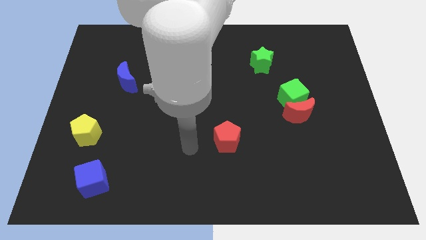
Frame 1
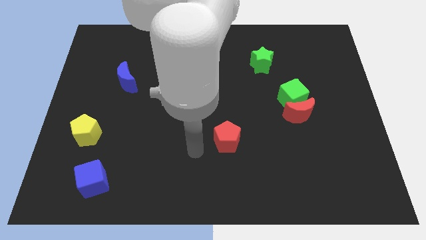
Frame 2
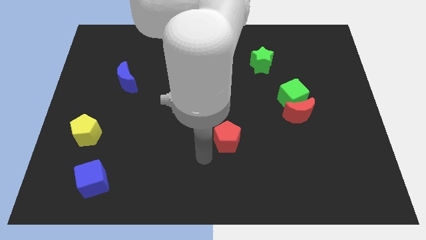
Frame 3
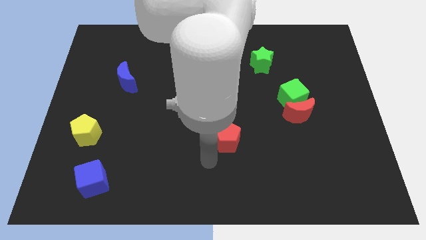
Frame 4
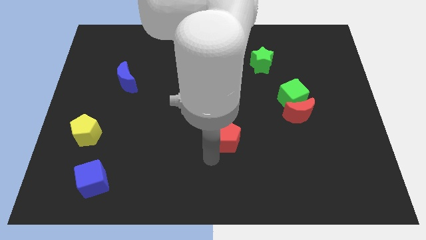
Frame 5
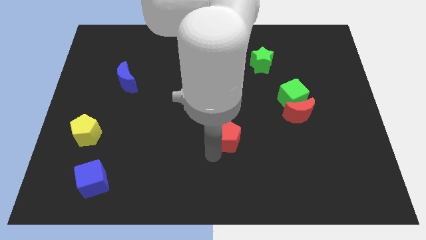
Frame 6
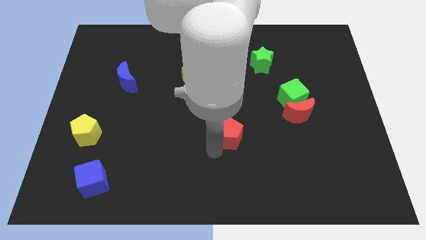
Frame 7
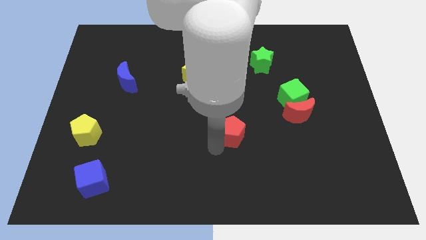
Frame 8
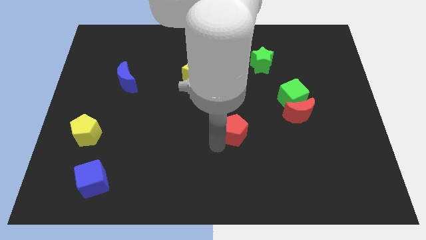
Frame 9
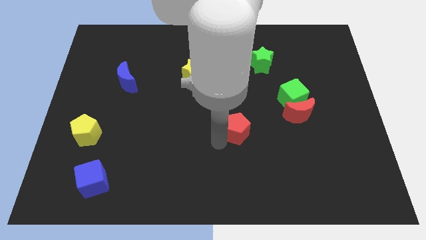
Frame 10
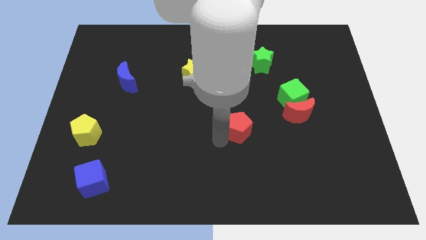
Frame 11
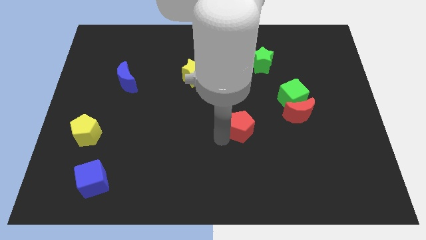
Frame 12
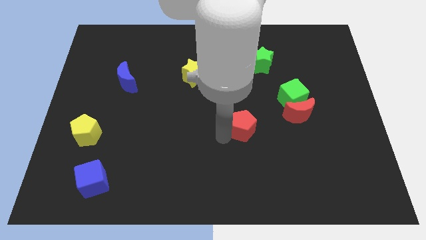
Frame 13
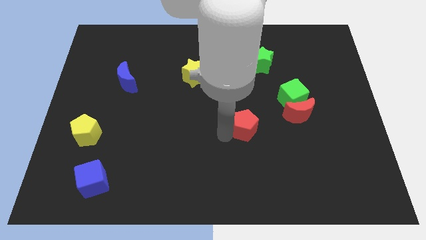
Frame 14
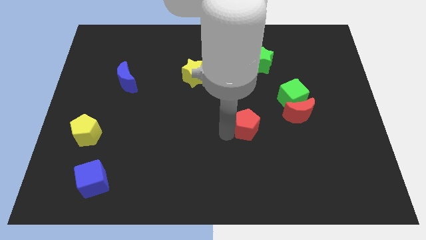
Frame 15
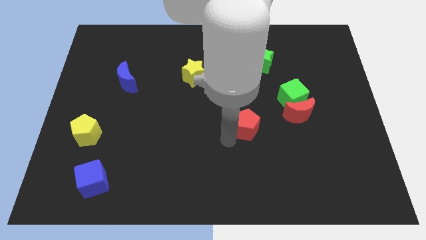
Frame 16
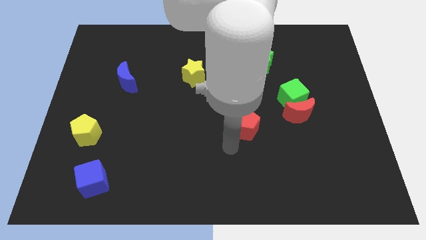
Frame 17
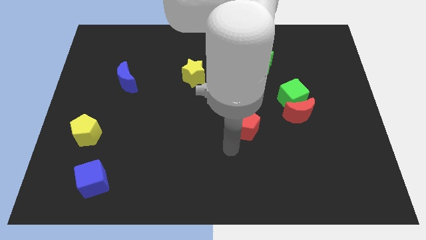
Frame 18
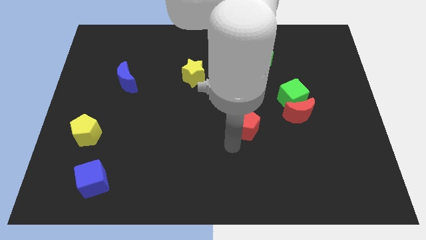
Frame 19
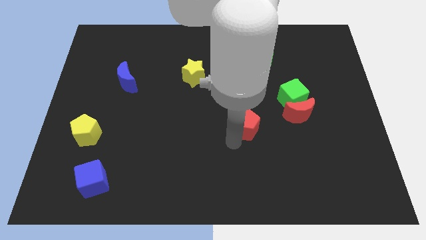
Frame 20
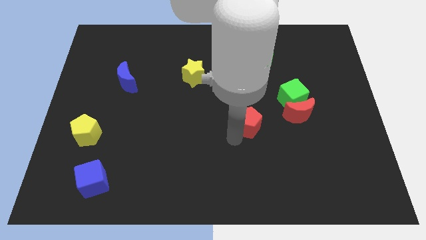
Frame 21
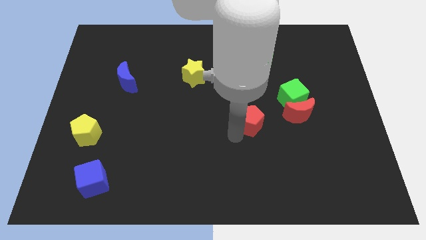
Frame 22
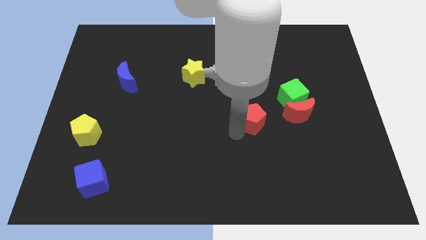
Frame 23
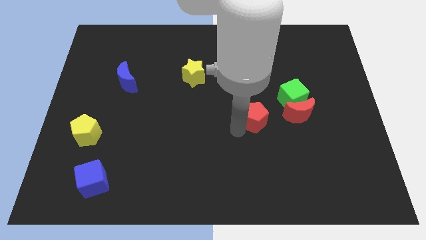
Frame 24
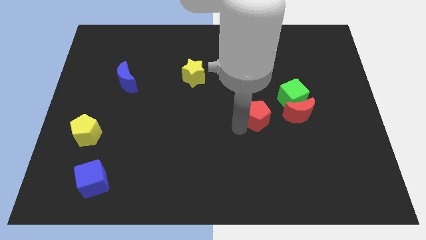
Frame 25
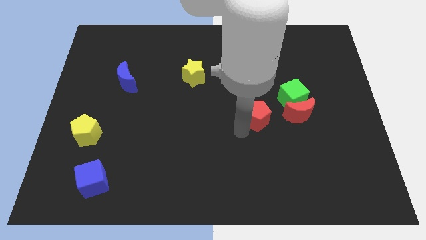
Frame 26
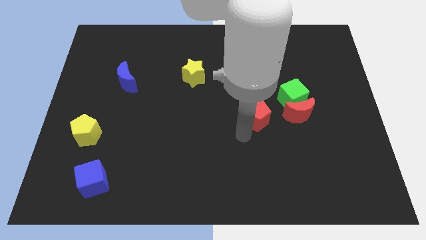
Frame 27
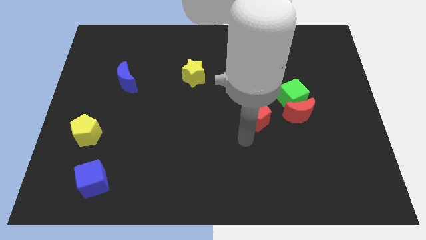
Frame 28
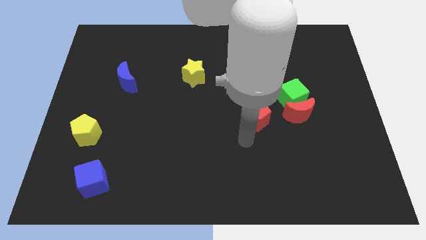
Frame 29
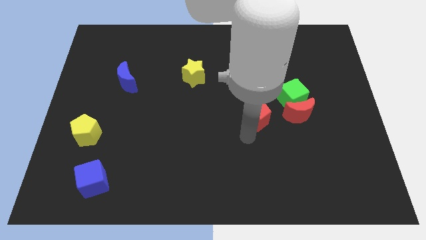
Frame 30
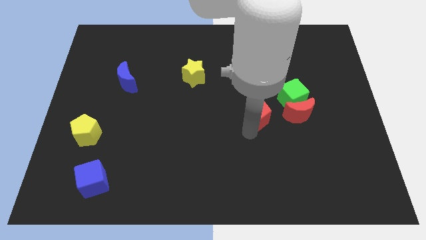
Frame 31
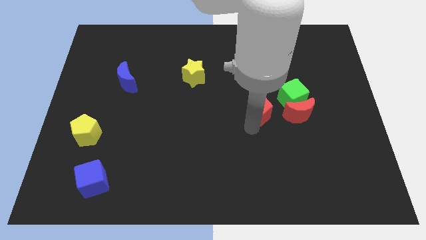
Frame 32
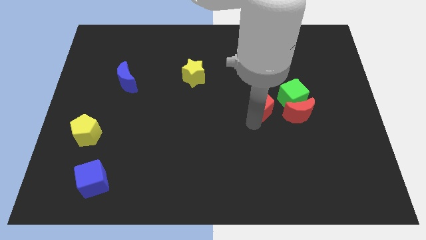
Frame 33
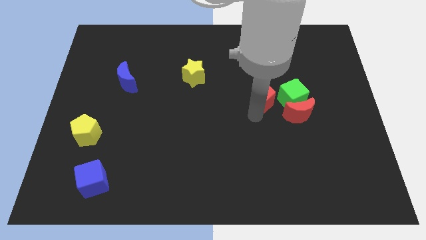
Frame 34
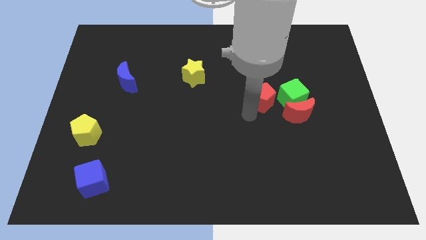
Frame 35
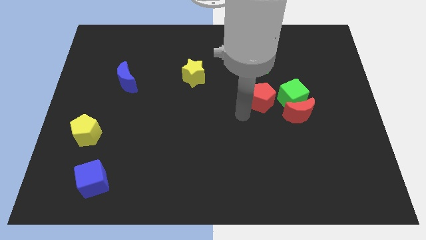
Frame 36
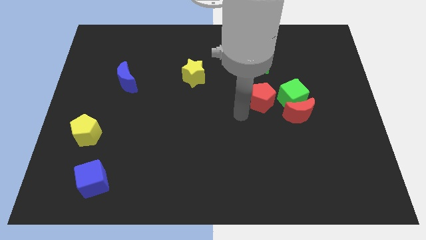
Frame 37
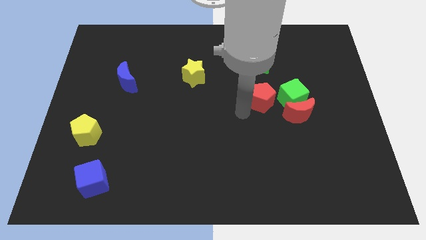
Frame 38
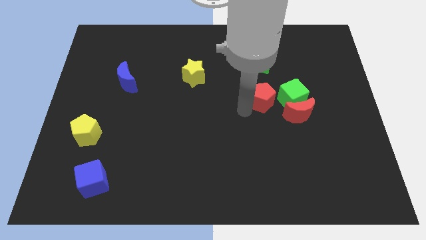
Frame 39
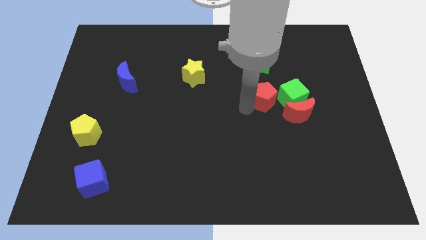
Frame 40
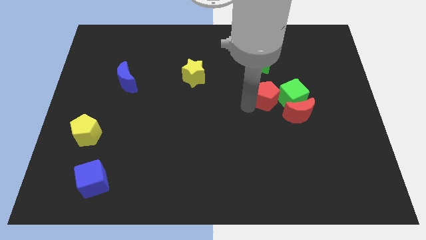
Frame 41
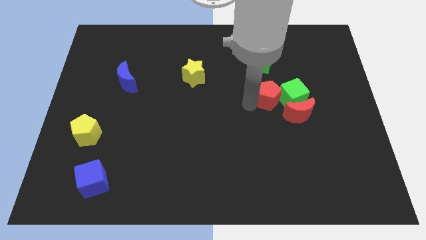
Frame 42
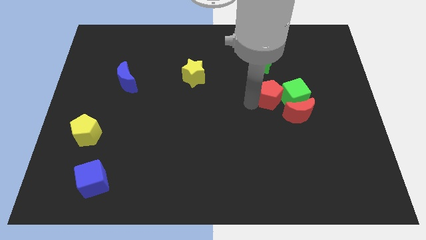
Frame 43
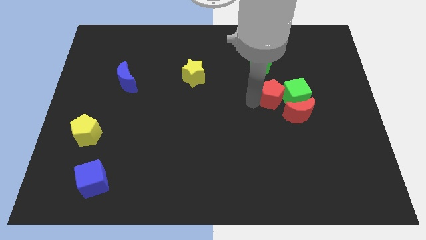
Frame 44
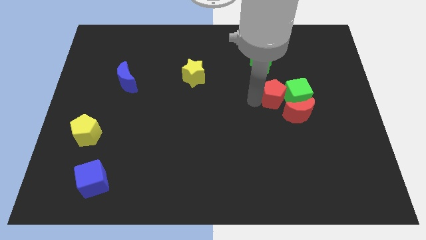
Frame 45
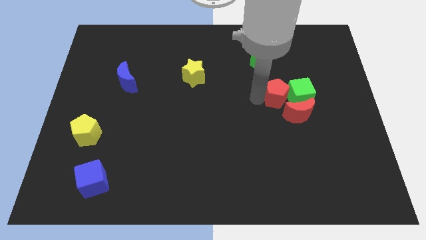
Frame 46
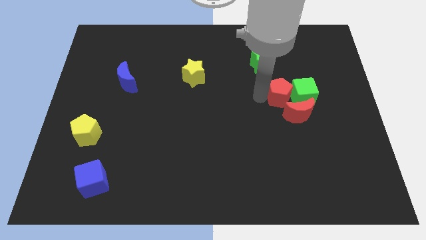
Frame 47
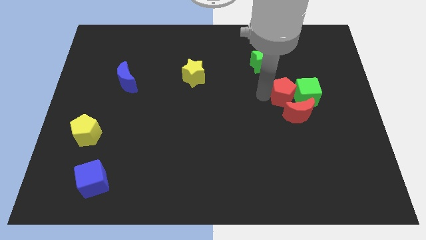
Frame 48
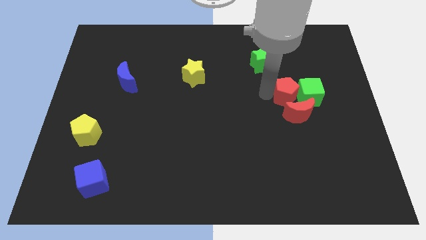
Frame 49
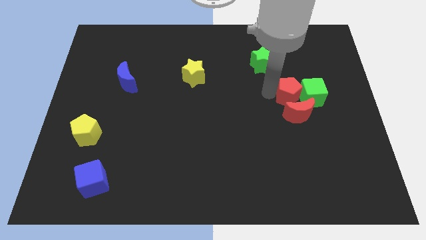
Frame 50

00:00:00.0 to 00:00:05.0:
push the red pentagon diagonally up and to the right

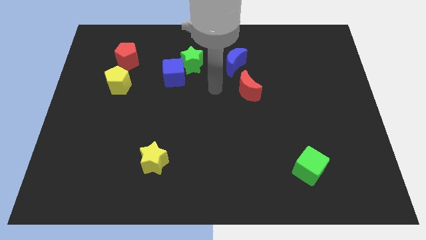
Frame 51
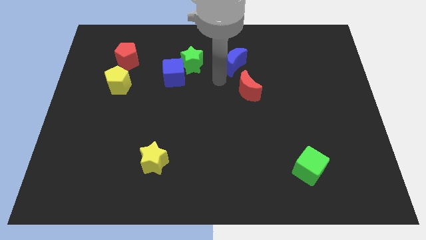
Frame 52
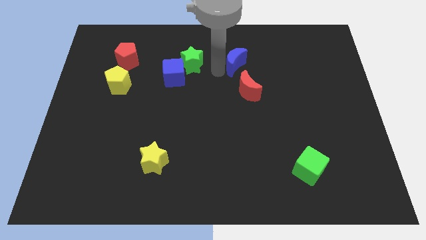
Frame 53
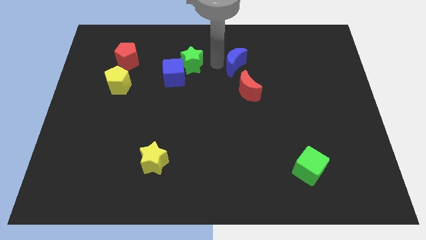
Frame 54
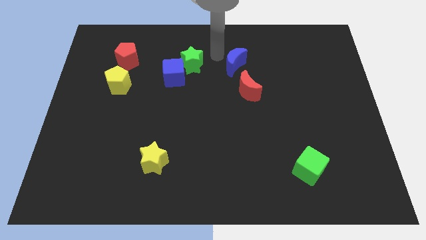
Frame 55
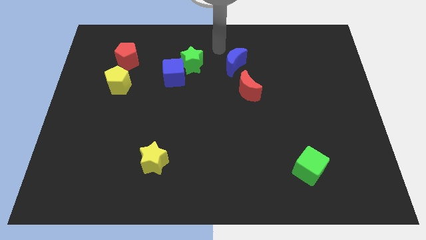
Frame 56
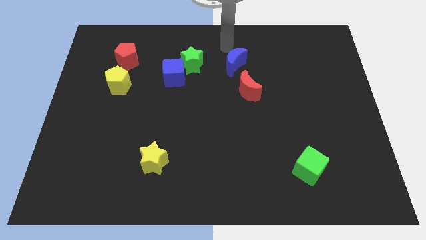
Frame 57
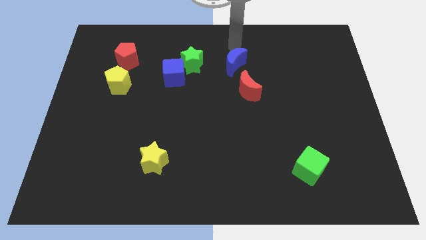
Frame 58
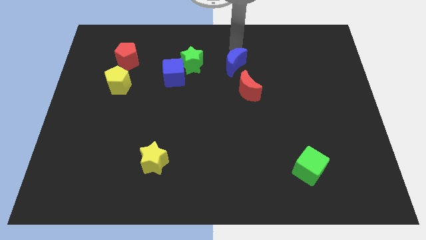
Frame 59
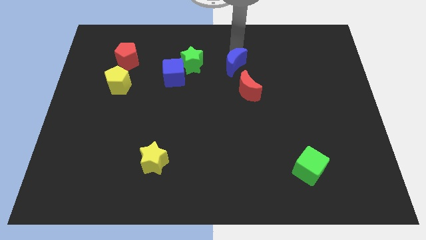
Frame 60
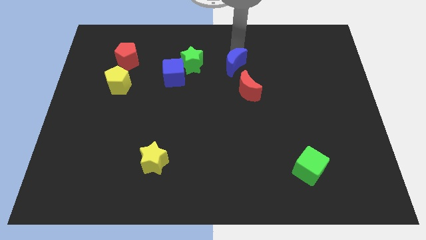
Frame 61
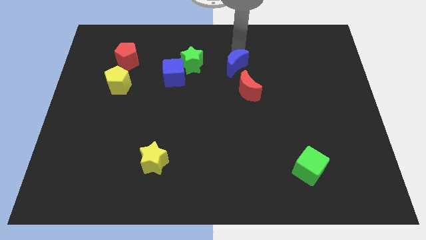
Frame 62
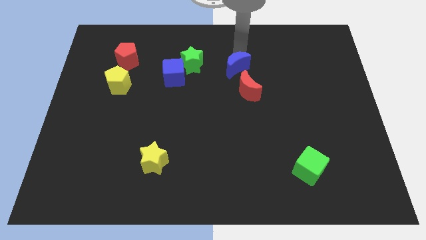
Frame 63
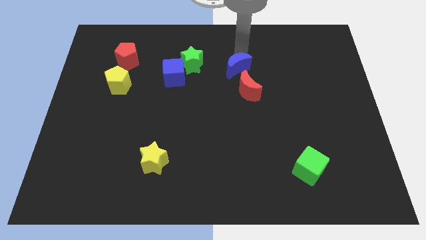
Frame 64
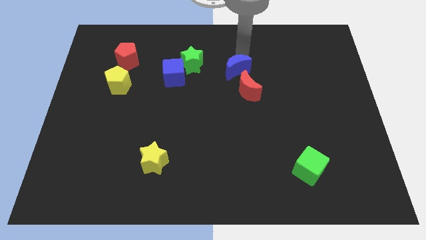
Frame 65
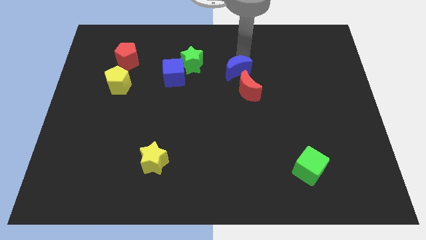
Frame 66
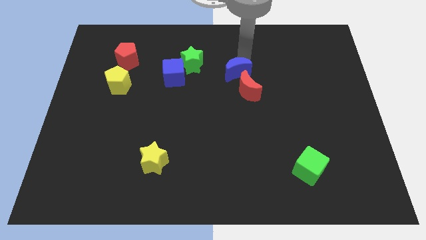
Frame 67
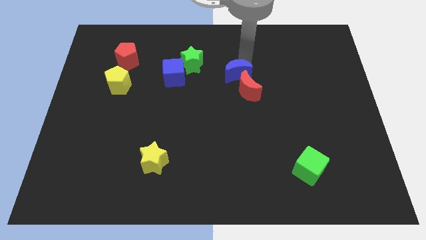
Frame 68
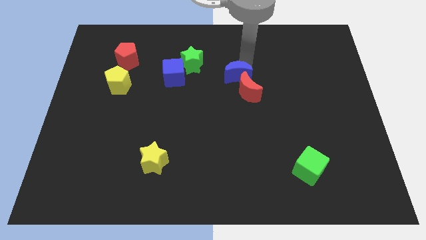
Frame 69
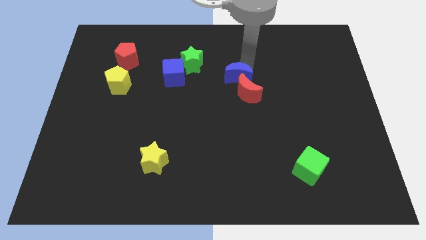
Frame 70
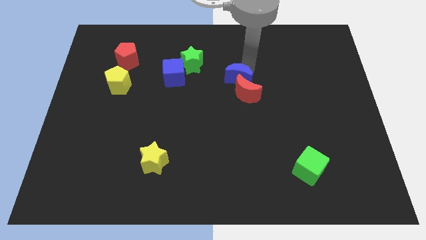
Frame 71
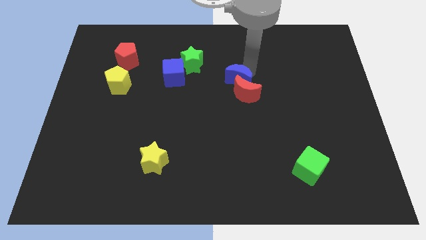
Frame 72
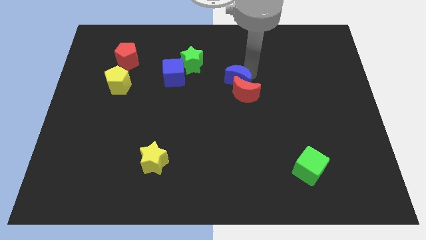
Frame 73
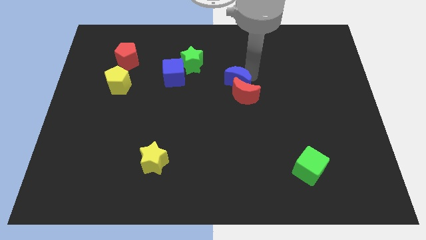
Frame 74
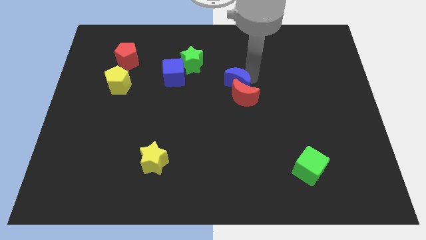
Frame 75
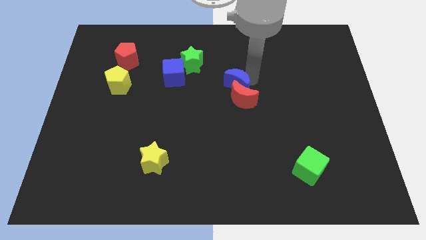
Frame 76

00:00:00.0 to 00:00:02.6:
slide the blue moon somewhat downwards

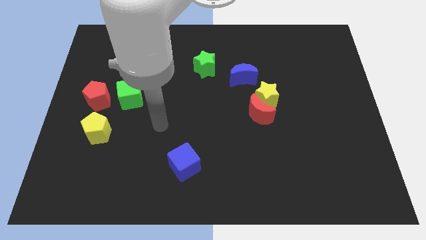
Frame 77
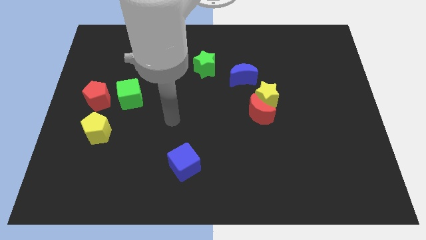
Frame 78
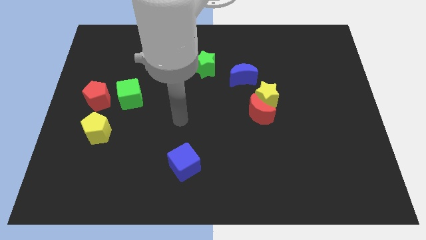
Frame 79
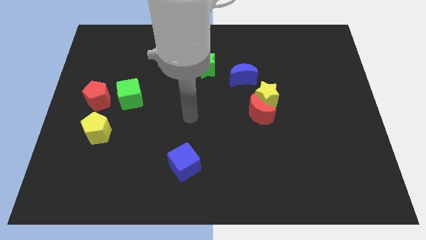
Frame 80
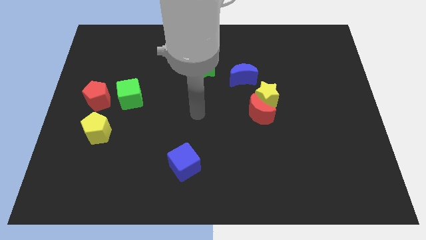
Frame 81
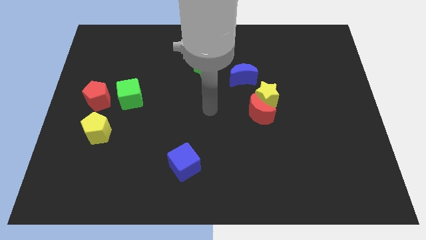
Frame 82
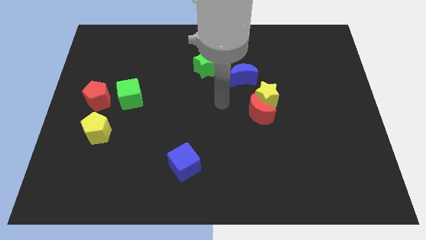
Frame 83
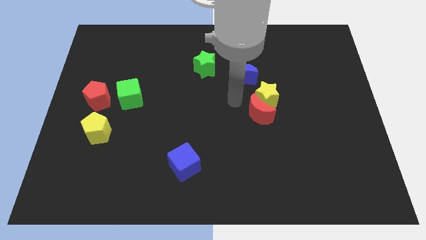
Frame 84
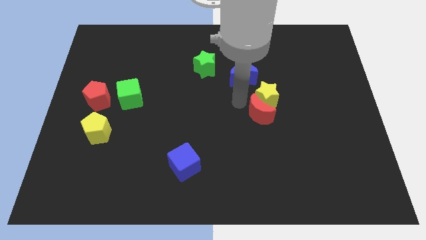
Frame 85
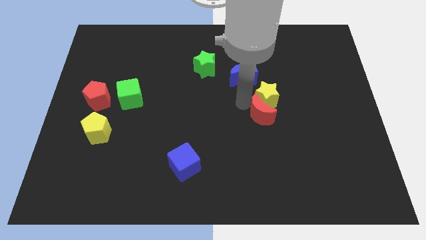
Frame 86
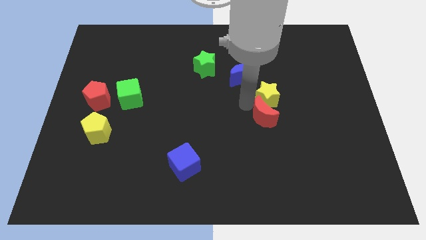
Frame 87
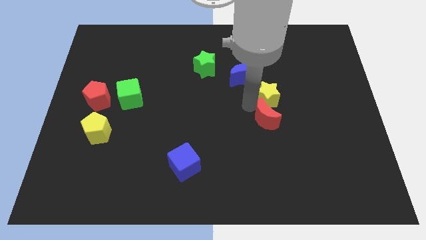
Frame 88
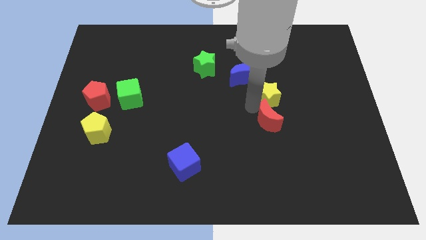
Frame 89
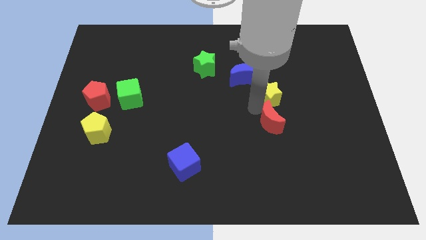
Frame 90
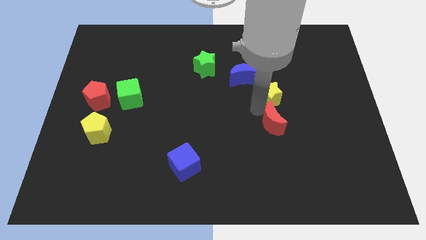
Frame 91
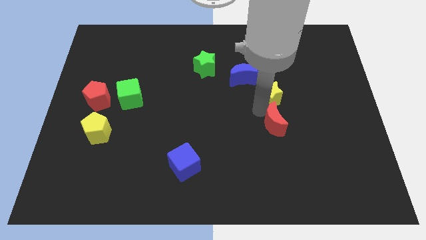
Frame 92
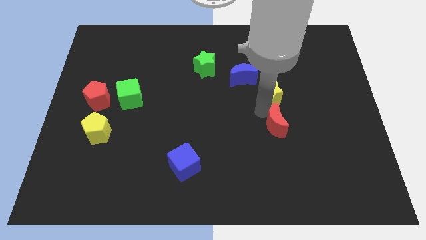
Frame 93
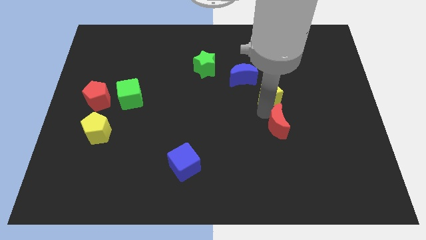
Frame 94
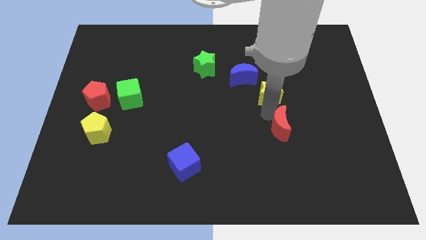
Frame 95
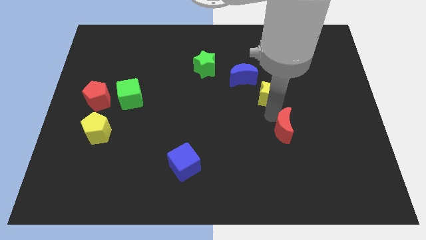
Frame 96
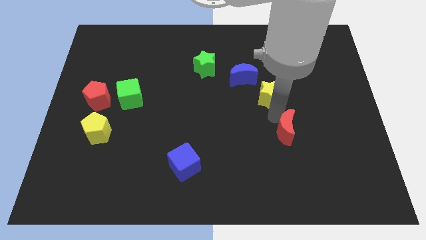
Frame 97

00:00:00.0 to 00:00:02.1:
move the red moon a little down and then to the right
